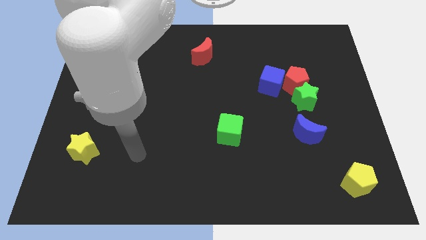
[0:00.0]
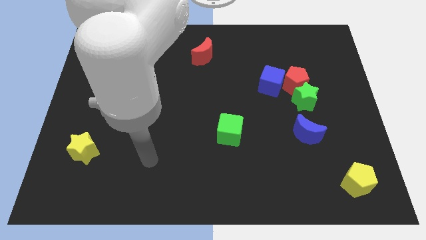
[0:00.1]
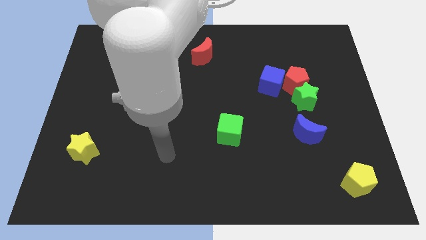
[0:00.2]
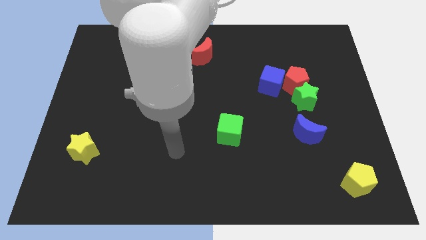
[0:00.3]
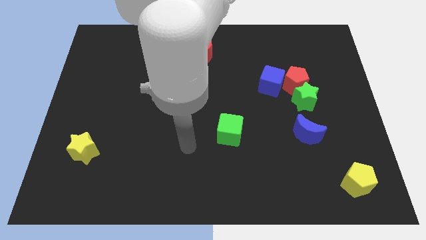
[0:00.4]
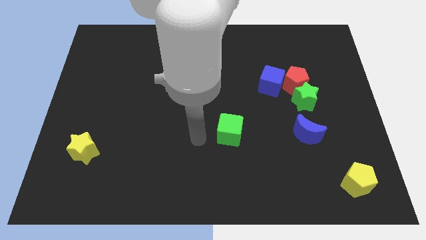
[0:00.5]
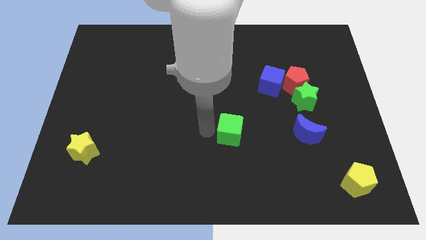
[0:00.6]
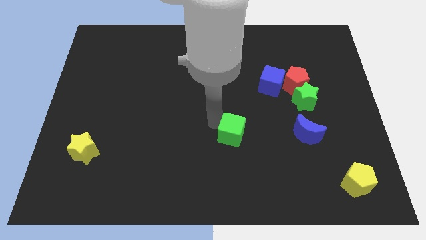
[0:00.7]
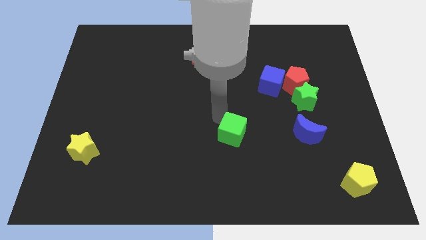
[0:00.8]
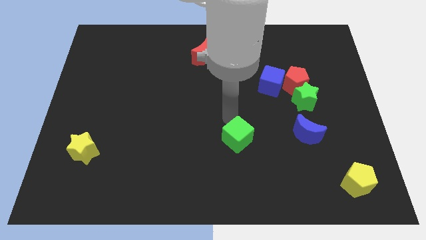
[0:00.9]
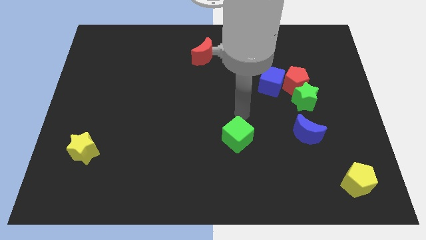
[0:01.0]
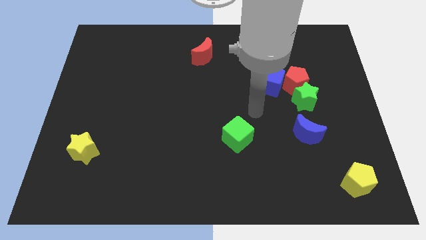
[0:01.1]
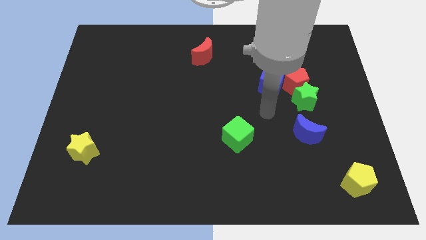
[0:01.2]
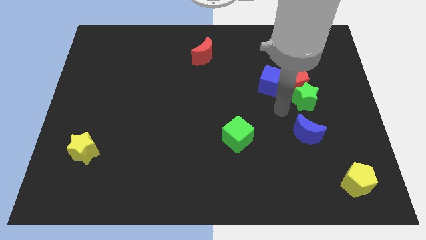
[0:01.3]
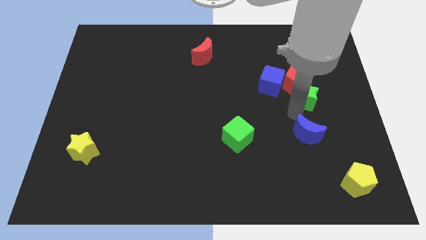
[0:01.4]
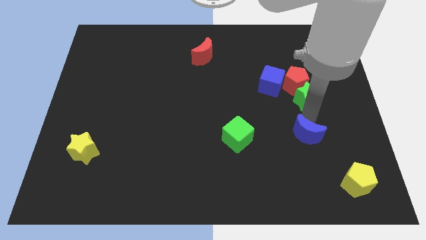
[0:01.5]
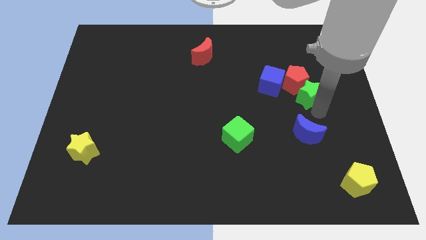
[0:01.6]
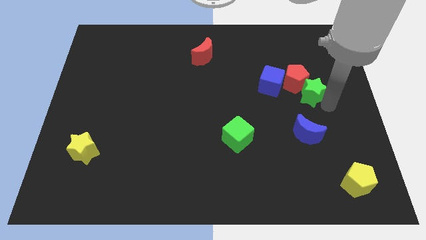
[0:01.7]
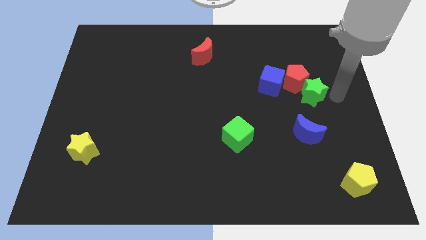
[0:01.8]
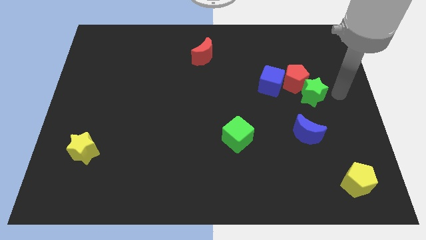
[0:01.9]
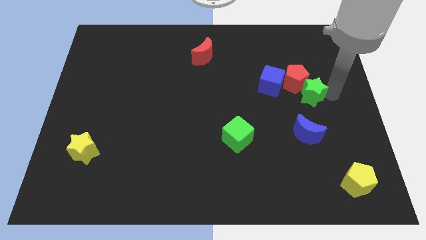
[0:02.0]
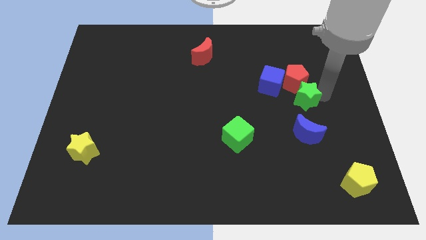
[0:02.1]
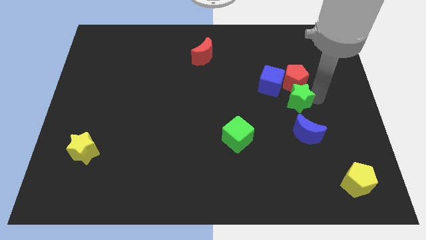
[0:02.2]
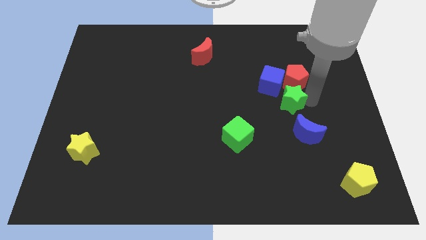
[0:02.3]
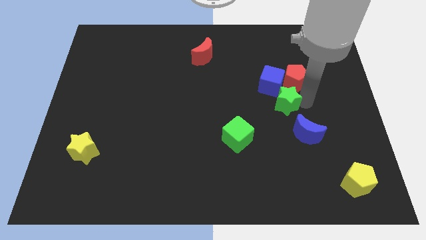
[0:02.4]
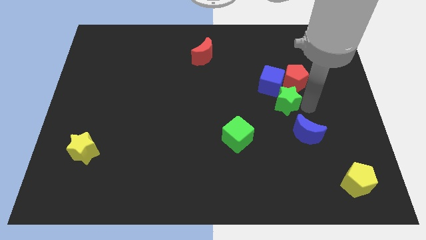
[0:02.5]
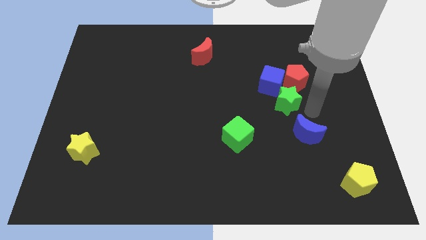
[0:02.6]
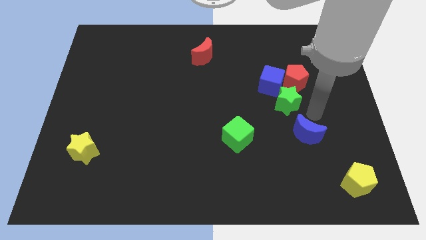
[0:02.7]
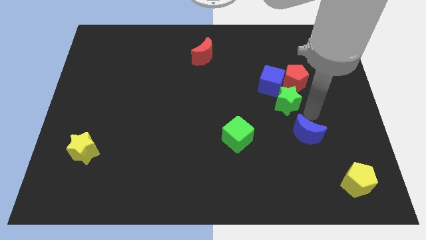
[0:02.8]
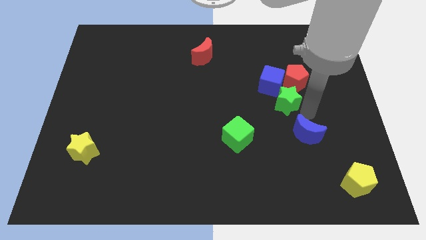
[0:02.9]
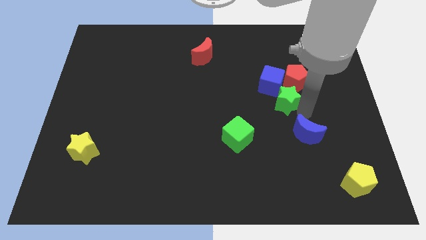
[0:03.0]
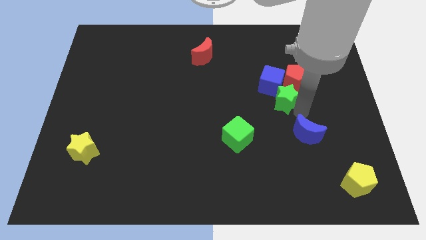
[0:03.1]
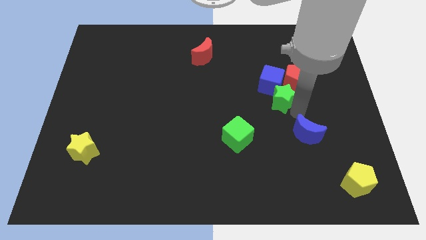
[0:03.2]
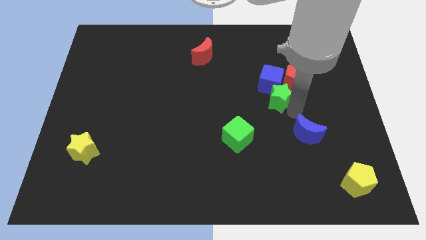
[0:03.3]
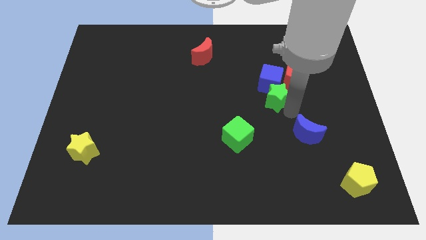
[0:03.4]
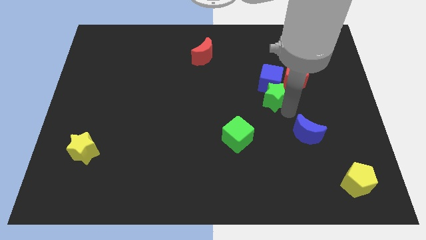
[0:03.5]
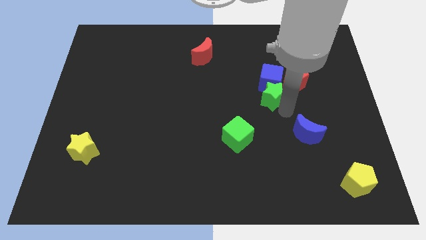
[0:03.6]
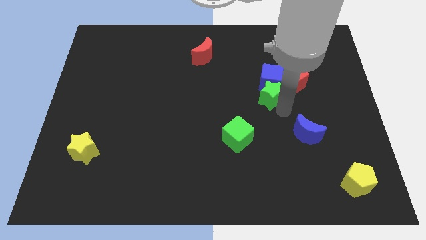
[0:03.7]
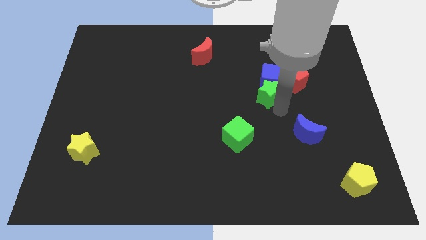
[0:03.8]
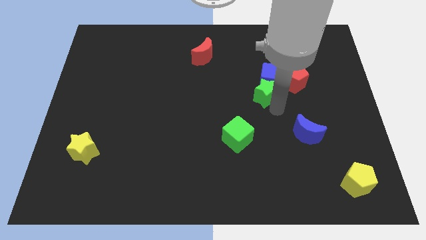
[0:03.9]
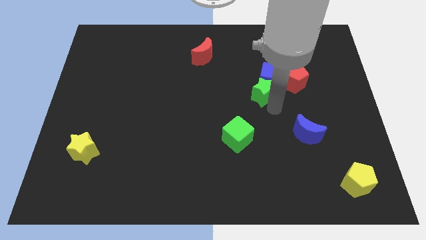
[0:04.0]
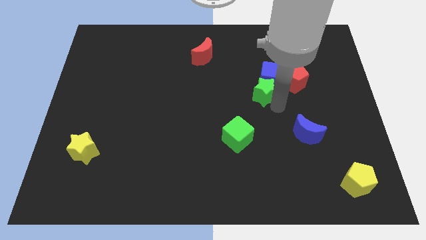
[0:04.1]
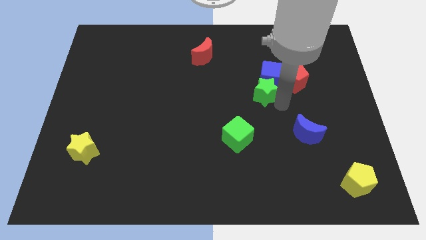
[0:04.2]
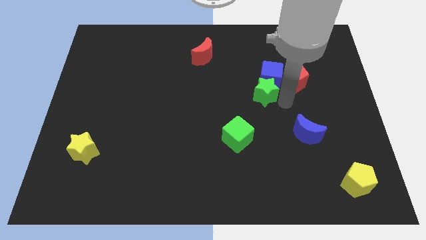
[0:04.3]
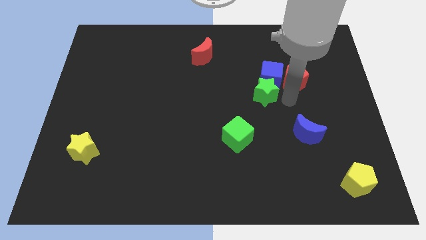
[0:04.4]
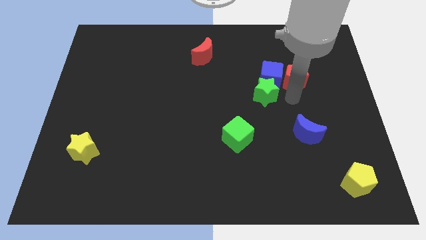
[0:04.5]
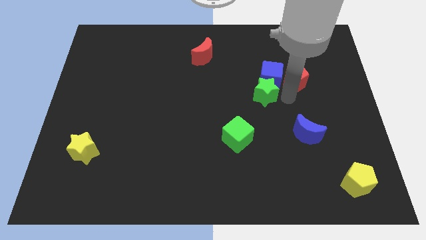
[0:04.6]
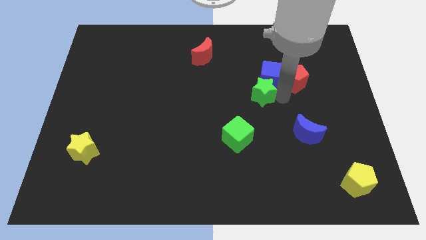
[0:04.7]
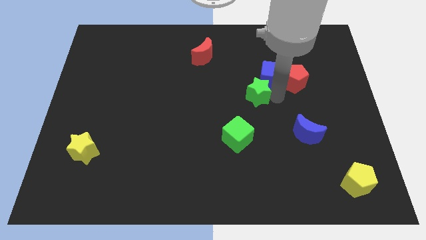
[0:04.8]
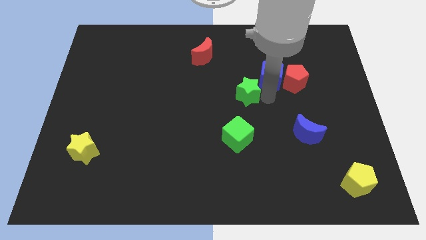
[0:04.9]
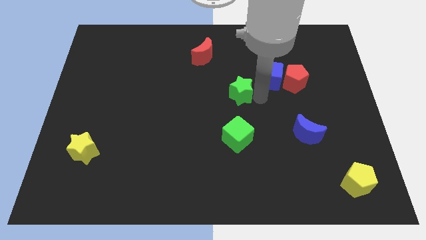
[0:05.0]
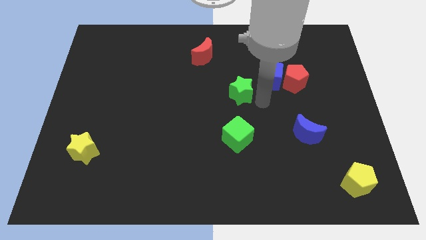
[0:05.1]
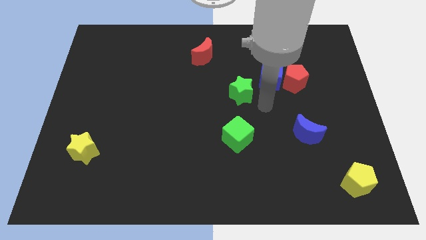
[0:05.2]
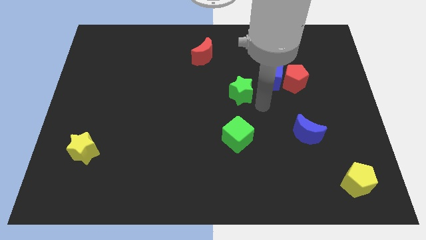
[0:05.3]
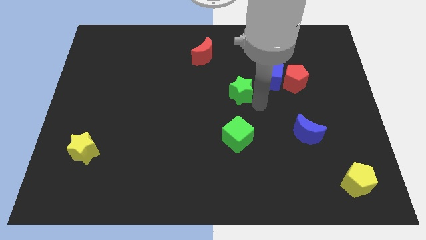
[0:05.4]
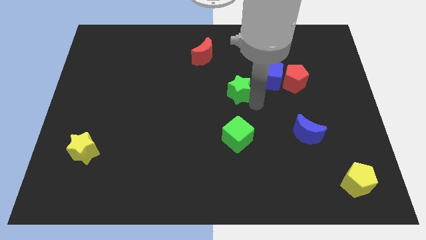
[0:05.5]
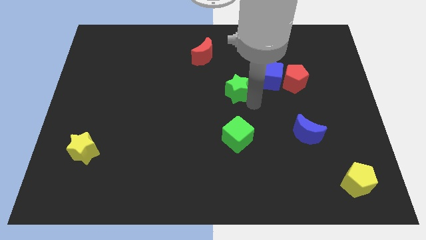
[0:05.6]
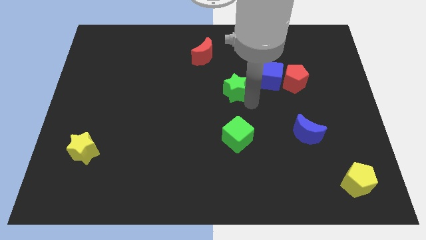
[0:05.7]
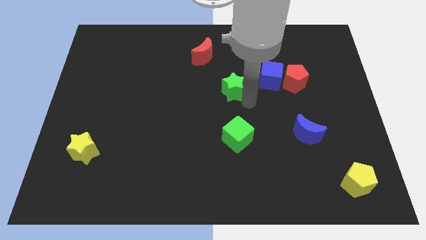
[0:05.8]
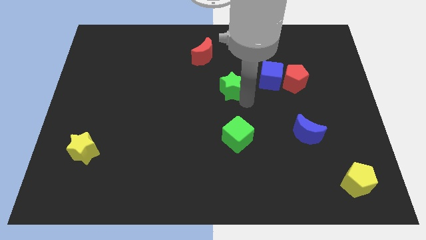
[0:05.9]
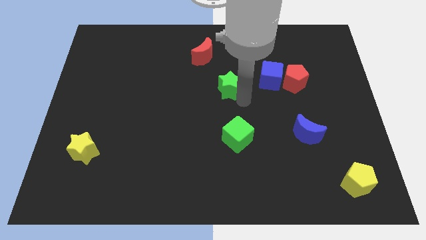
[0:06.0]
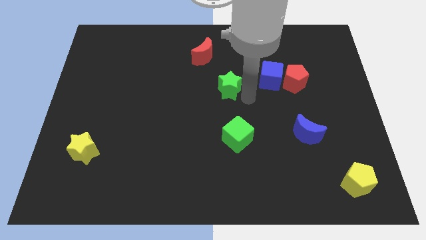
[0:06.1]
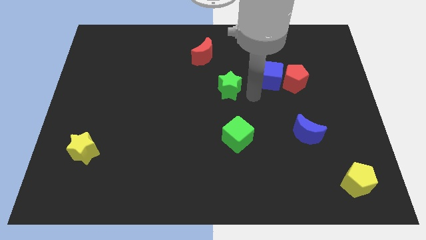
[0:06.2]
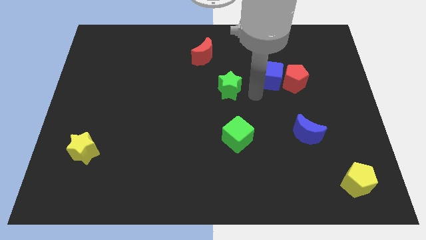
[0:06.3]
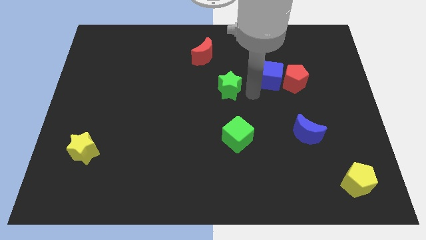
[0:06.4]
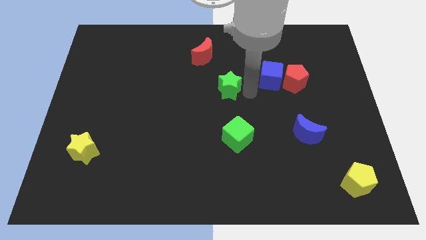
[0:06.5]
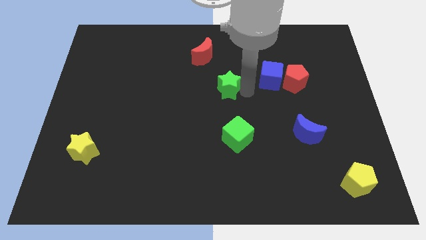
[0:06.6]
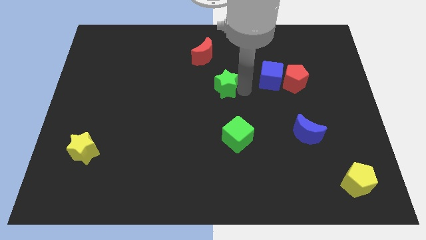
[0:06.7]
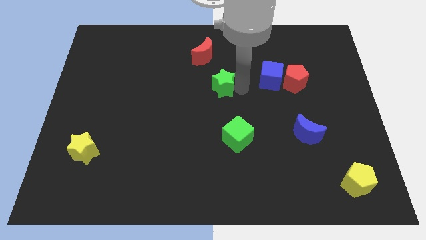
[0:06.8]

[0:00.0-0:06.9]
slide the green star below the red moon

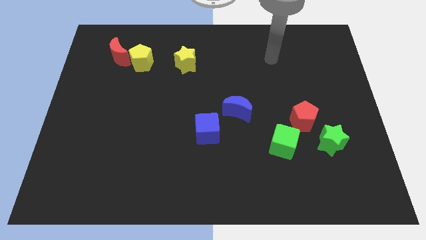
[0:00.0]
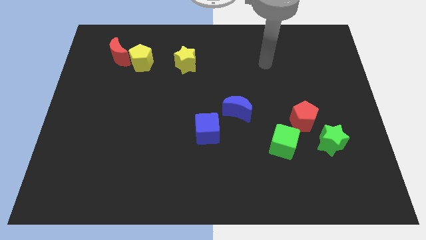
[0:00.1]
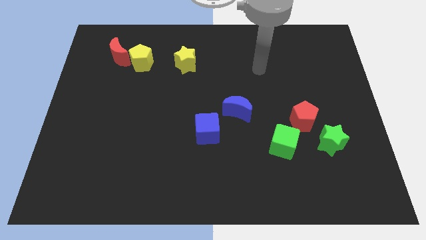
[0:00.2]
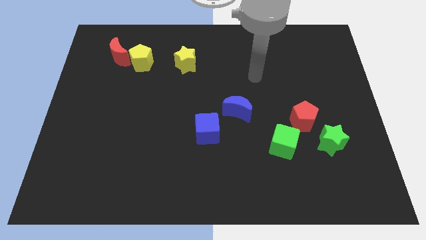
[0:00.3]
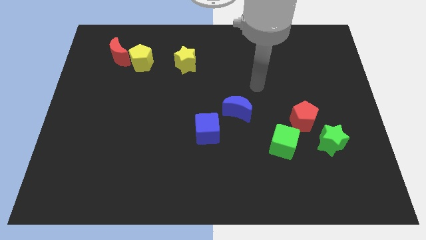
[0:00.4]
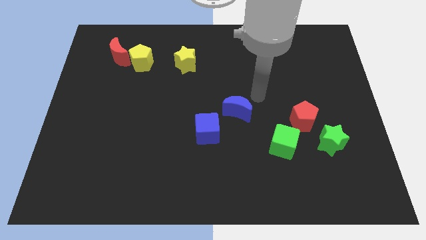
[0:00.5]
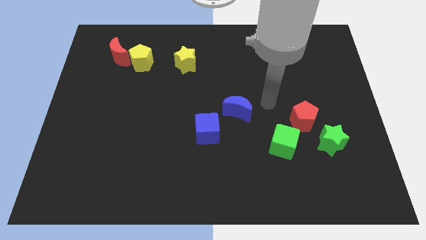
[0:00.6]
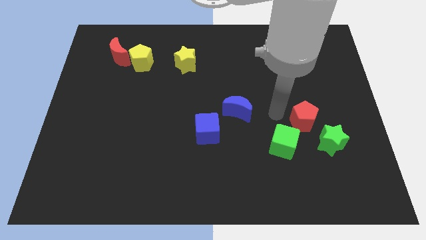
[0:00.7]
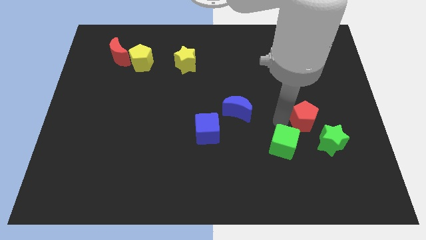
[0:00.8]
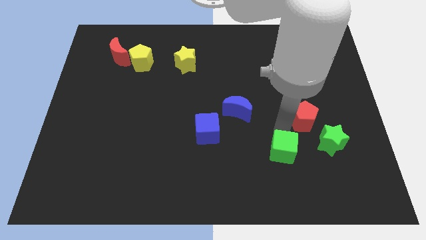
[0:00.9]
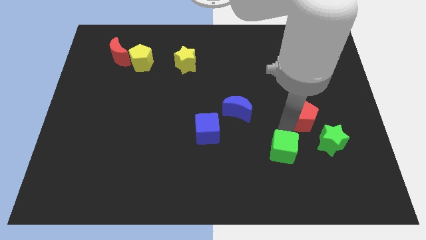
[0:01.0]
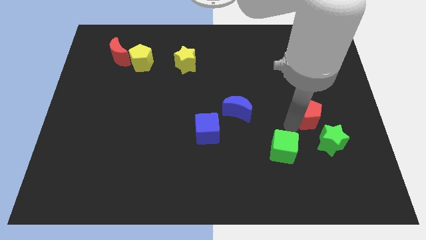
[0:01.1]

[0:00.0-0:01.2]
slide the red pentagon to the top of the green star

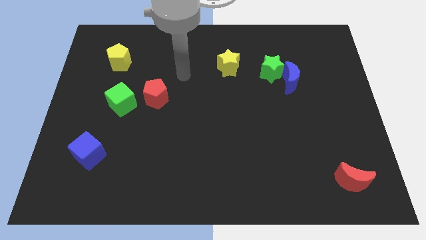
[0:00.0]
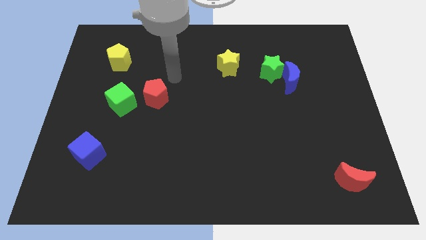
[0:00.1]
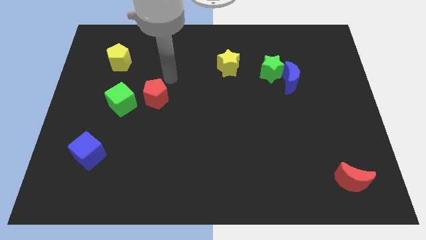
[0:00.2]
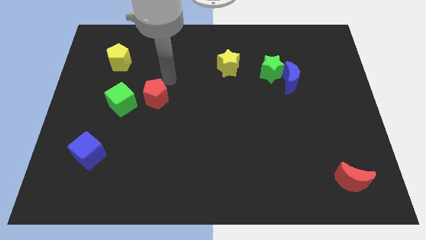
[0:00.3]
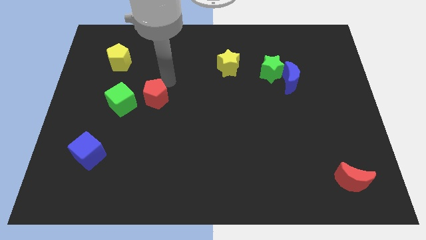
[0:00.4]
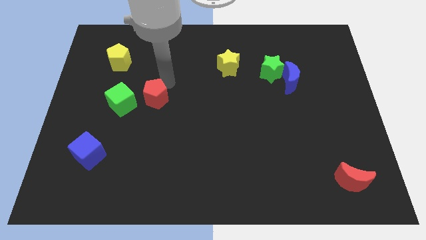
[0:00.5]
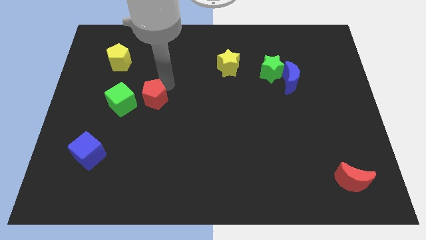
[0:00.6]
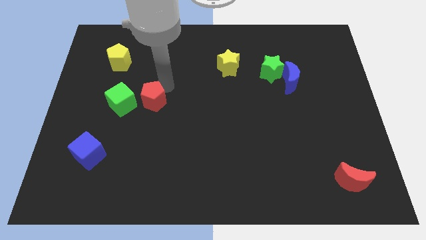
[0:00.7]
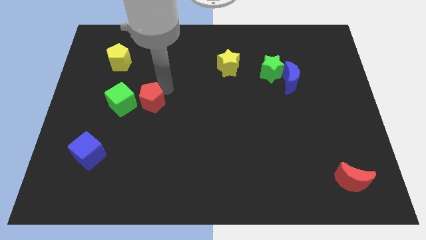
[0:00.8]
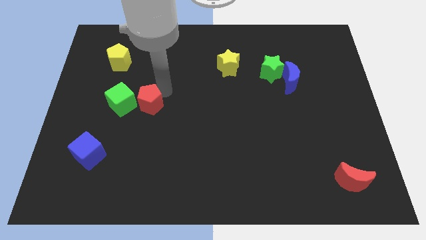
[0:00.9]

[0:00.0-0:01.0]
slide the red pentagon to the bottom right of the green cube
